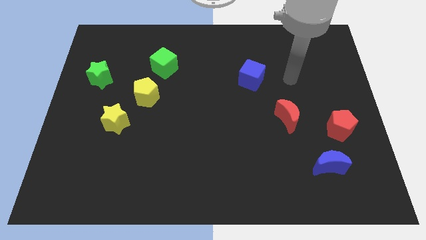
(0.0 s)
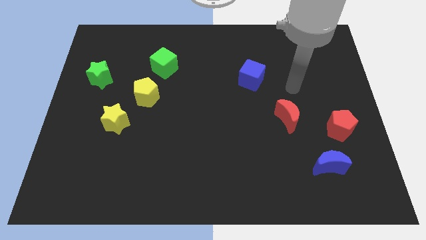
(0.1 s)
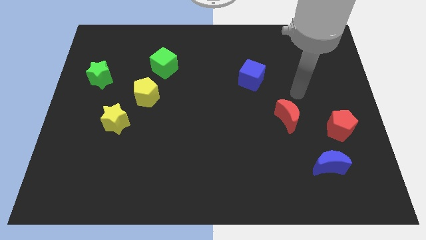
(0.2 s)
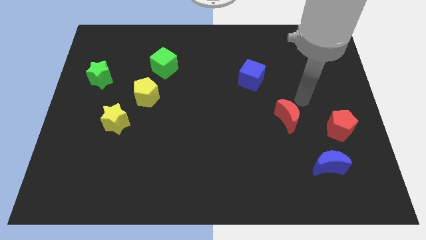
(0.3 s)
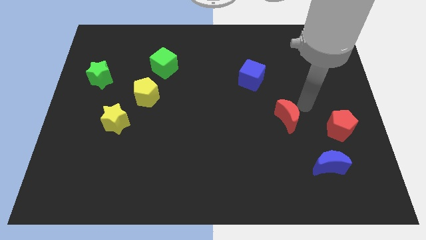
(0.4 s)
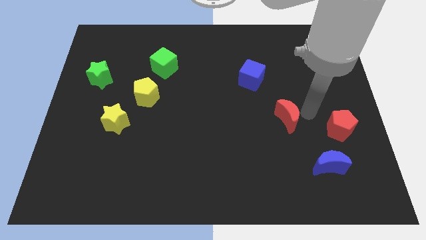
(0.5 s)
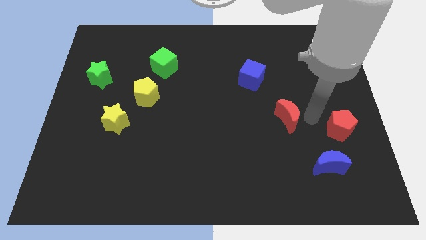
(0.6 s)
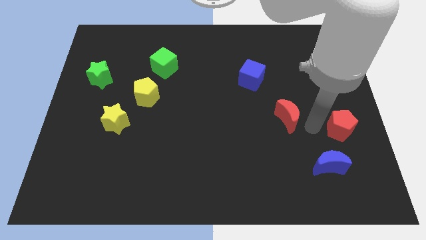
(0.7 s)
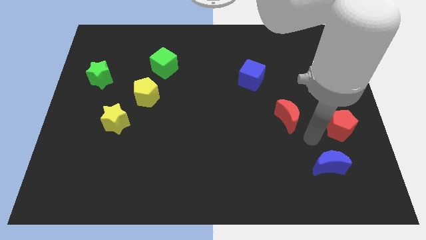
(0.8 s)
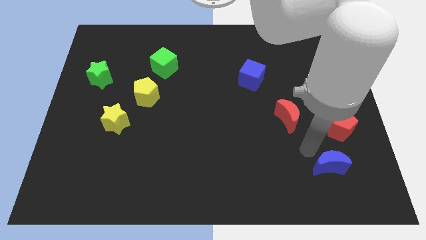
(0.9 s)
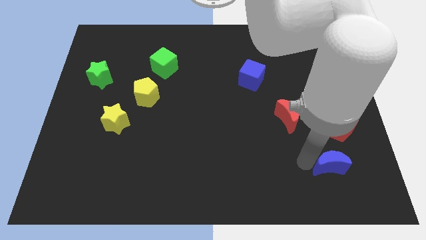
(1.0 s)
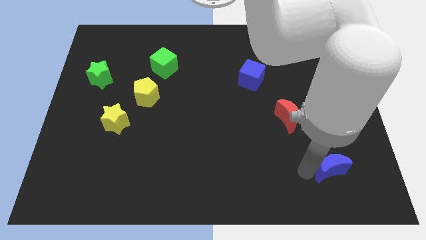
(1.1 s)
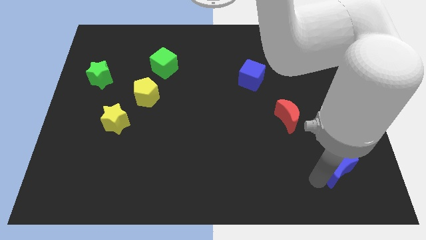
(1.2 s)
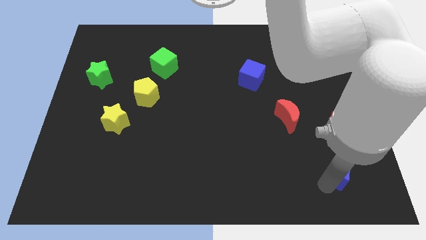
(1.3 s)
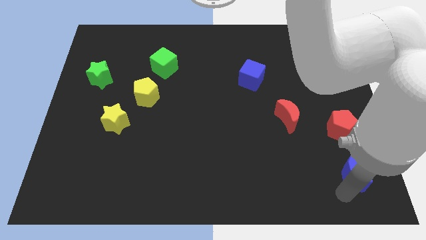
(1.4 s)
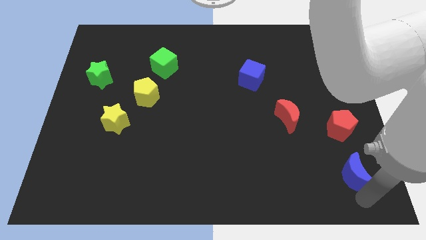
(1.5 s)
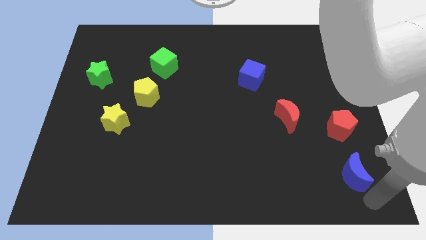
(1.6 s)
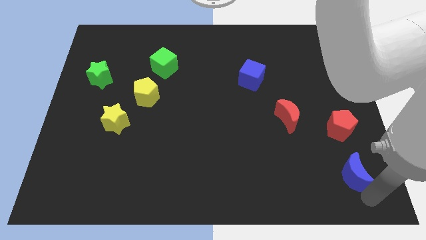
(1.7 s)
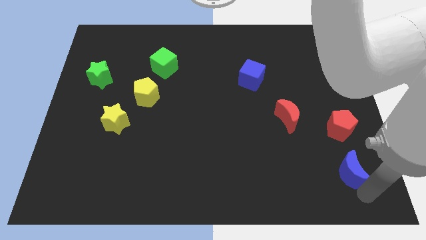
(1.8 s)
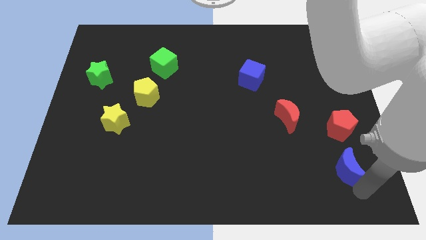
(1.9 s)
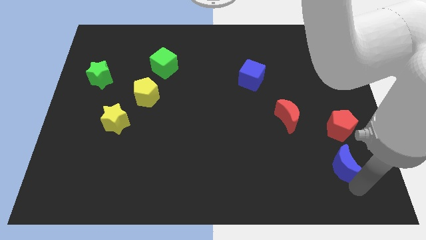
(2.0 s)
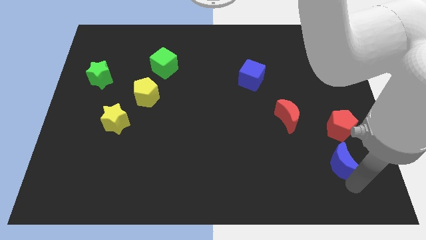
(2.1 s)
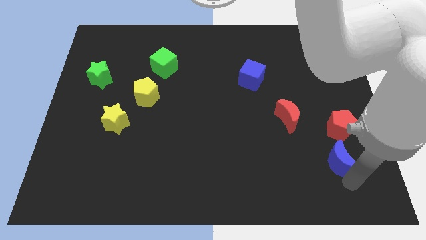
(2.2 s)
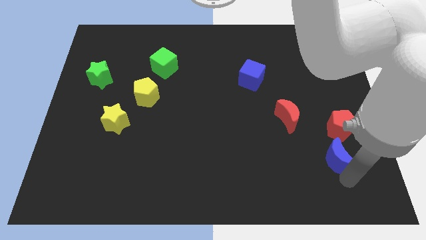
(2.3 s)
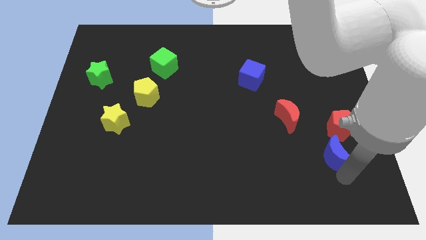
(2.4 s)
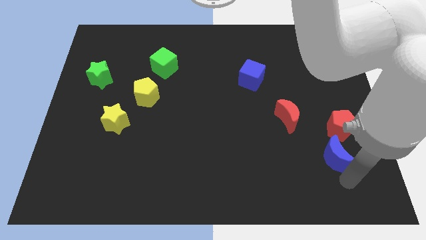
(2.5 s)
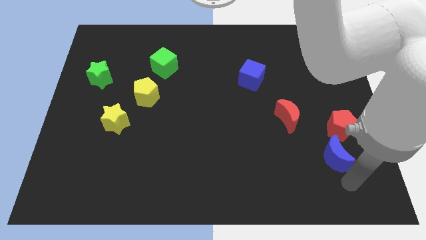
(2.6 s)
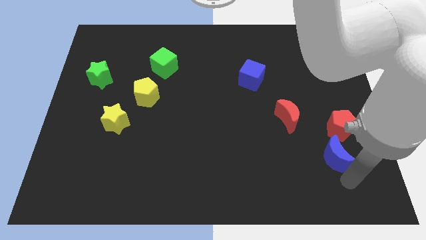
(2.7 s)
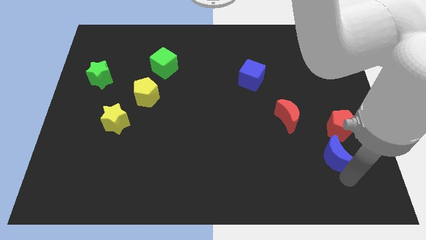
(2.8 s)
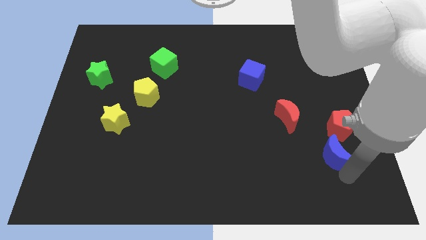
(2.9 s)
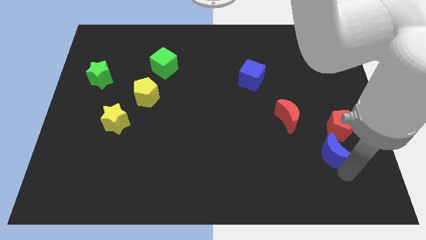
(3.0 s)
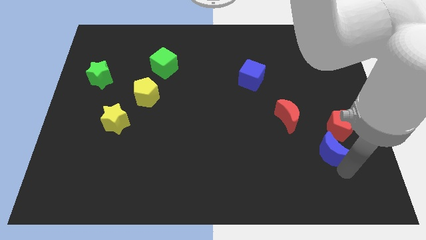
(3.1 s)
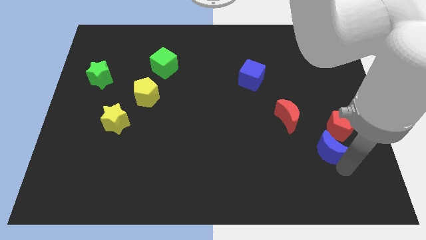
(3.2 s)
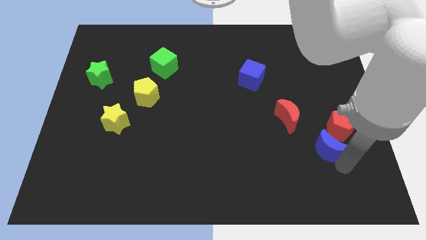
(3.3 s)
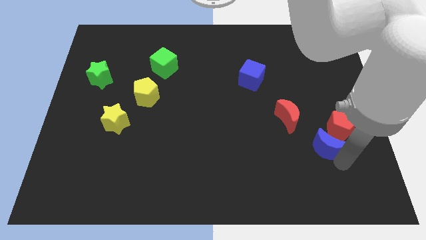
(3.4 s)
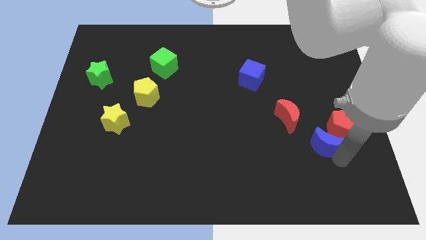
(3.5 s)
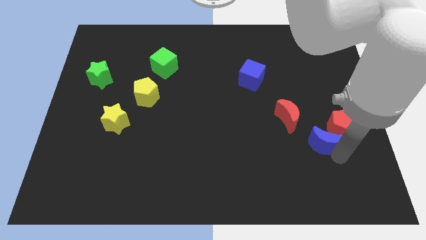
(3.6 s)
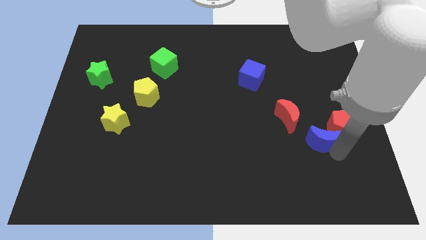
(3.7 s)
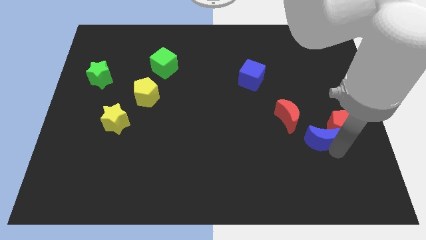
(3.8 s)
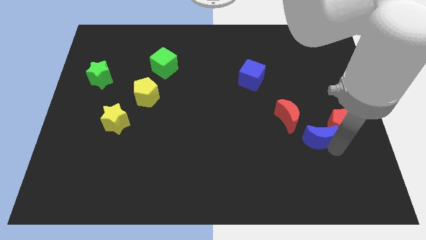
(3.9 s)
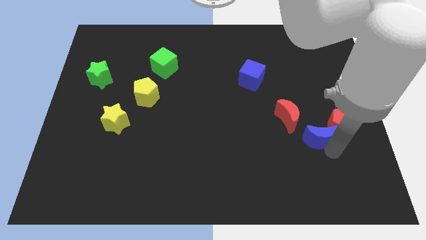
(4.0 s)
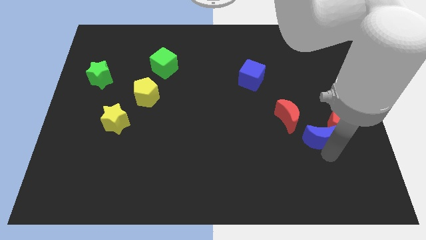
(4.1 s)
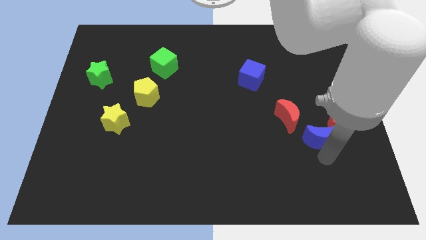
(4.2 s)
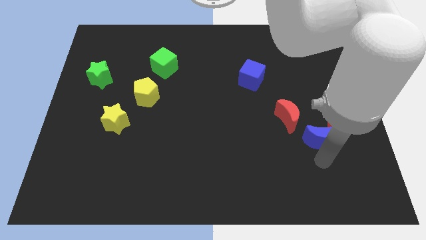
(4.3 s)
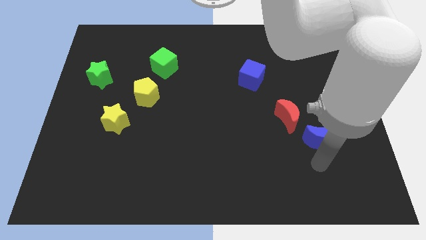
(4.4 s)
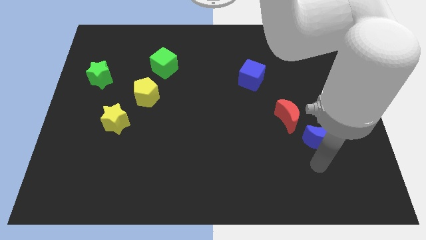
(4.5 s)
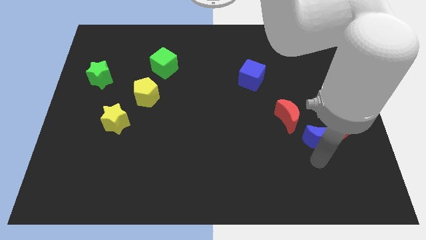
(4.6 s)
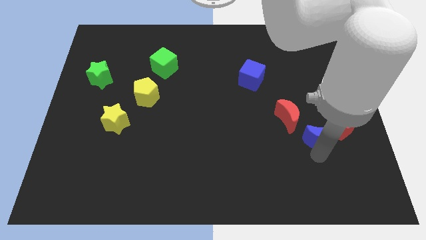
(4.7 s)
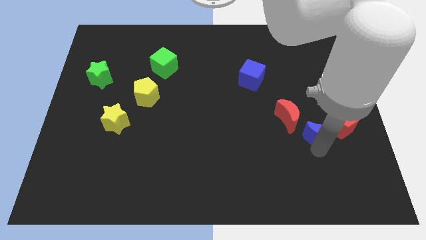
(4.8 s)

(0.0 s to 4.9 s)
move the blue moon a little bit upwards

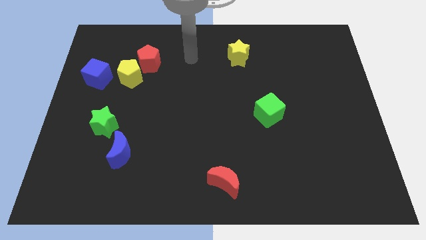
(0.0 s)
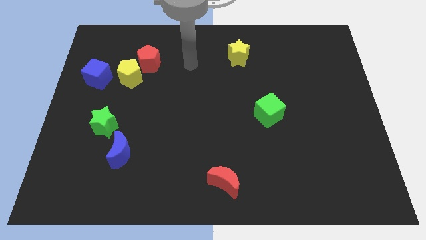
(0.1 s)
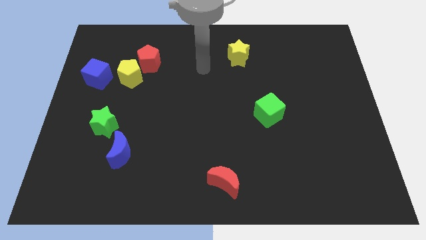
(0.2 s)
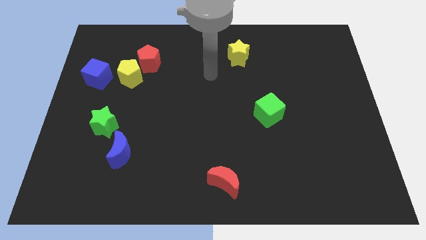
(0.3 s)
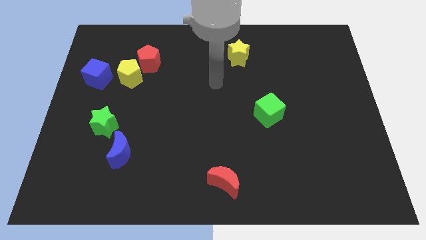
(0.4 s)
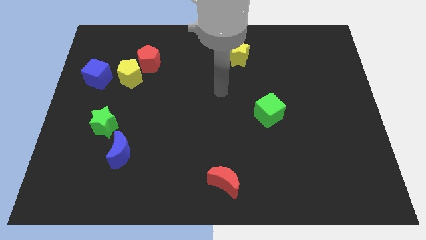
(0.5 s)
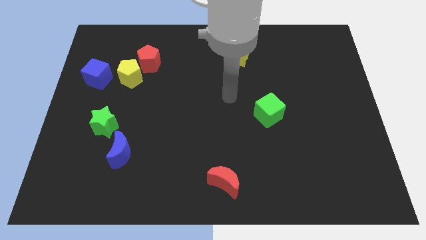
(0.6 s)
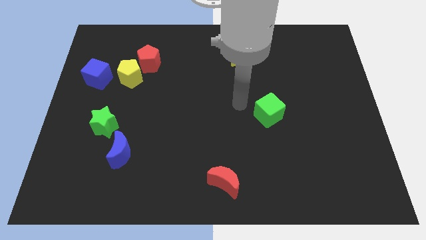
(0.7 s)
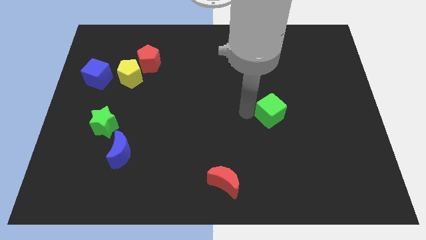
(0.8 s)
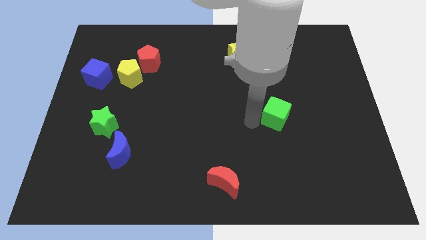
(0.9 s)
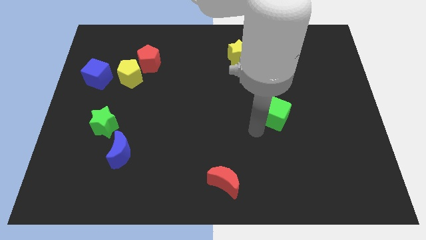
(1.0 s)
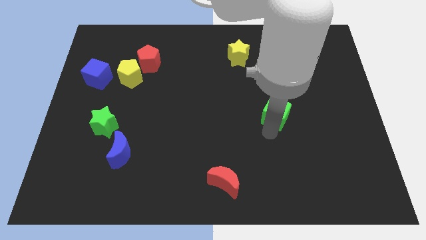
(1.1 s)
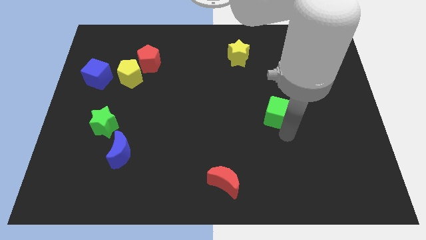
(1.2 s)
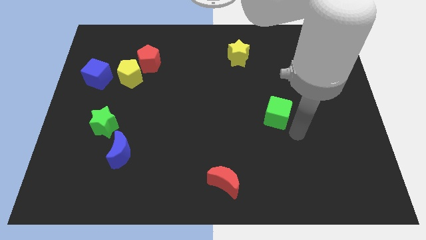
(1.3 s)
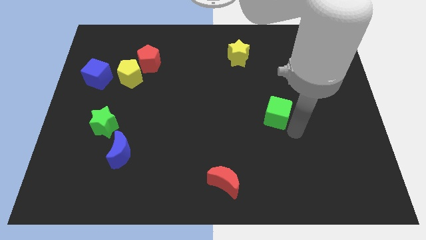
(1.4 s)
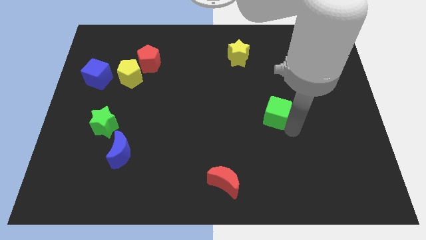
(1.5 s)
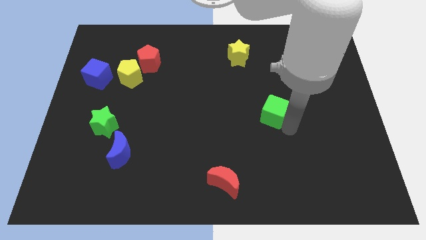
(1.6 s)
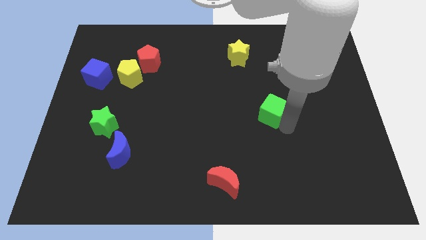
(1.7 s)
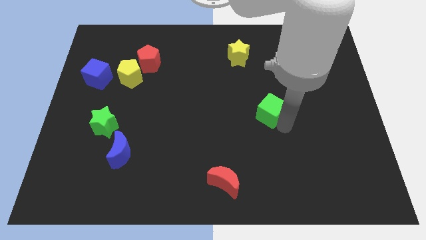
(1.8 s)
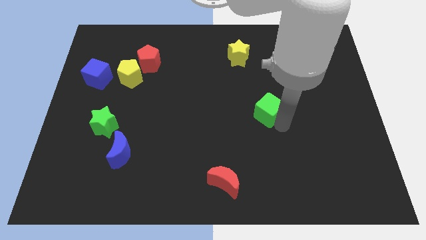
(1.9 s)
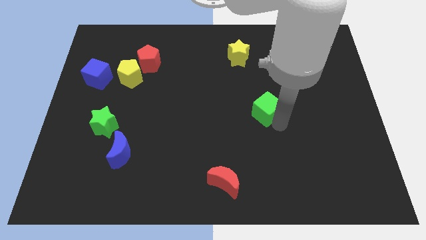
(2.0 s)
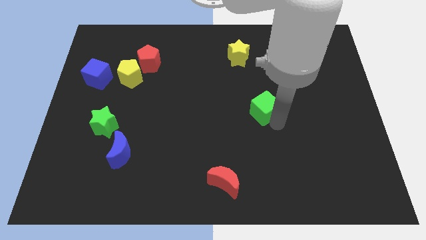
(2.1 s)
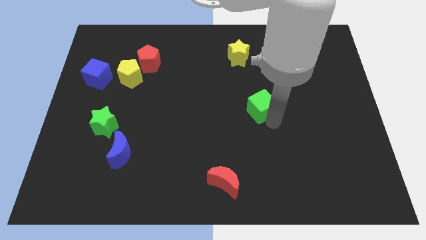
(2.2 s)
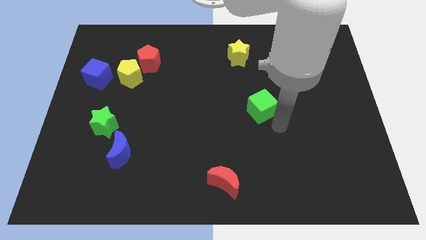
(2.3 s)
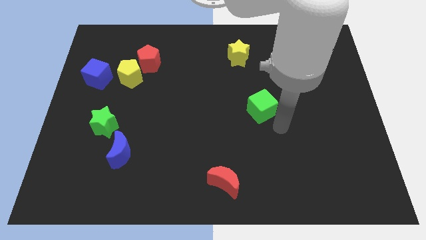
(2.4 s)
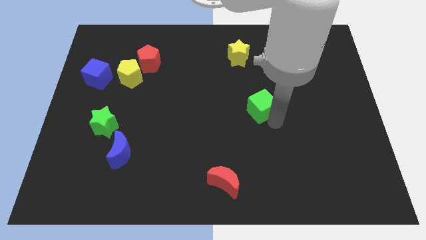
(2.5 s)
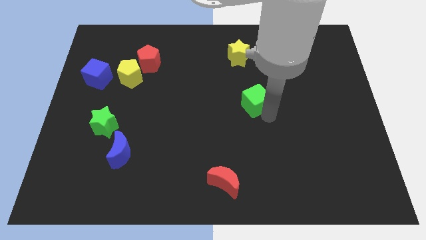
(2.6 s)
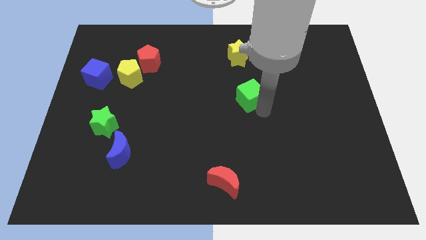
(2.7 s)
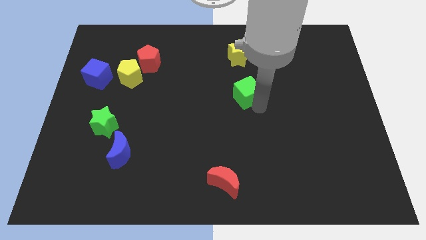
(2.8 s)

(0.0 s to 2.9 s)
move the green cube upwards and then left a bit
